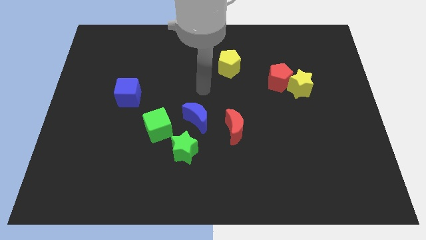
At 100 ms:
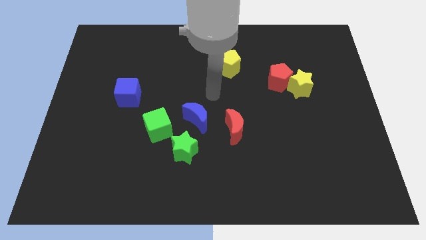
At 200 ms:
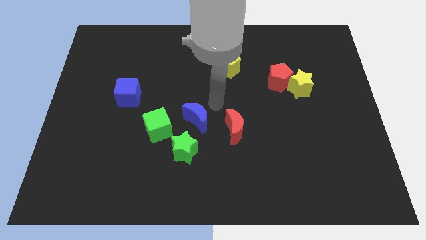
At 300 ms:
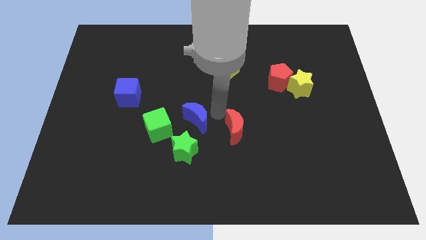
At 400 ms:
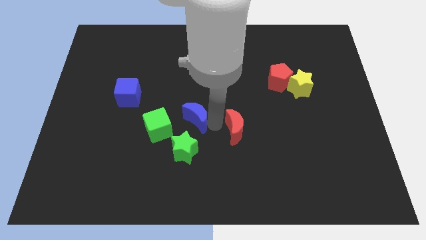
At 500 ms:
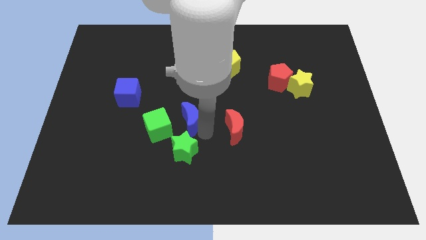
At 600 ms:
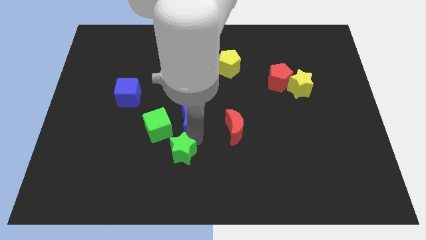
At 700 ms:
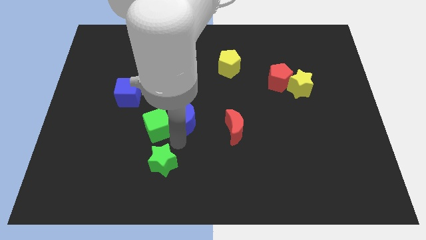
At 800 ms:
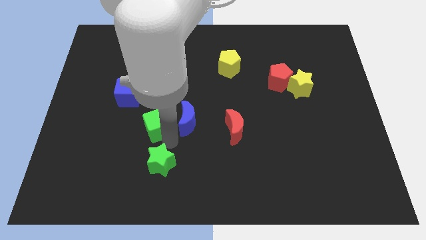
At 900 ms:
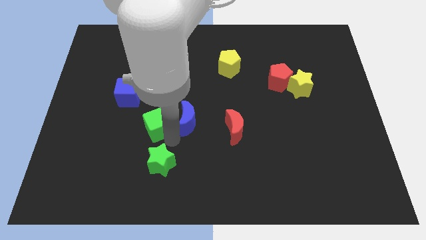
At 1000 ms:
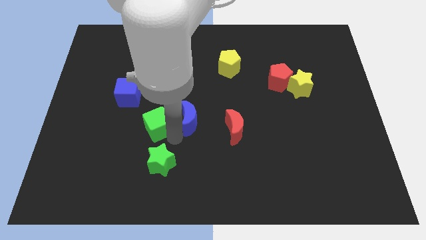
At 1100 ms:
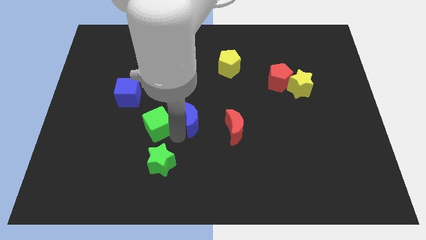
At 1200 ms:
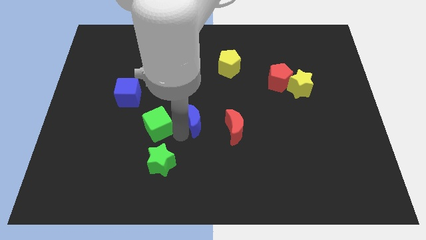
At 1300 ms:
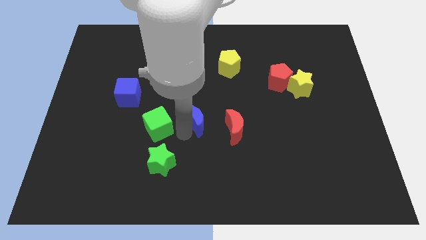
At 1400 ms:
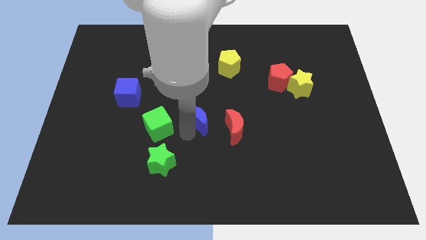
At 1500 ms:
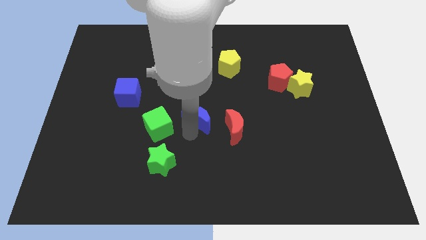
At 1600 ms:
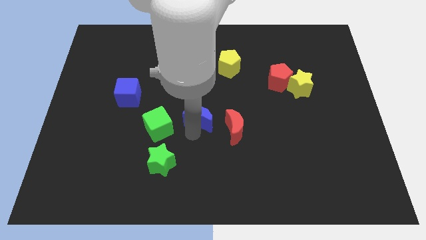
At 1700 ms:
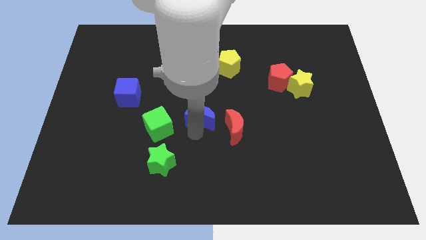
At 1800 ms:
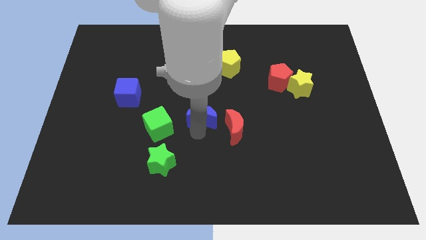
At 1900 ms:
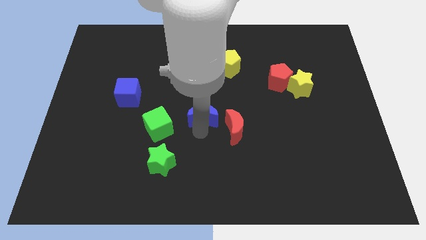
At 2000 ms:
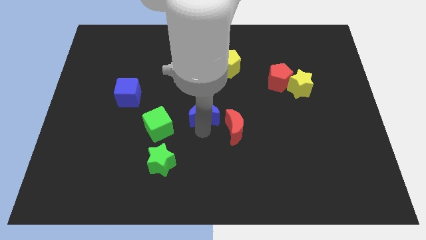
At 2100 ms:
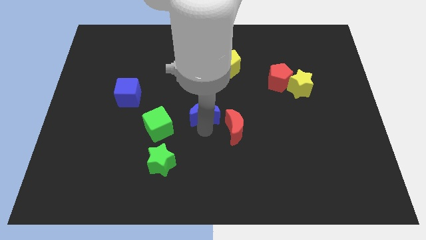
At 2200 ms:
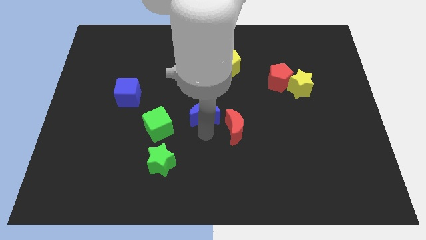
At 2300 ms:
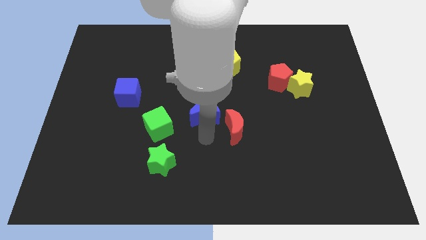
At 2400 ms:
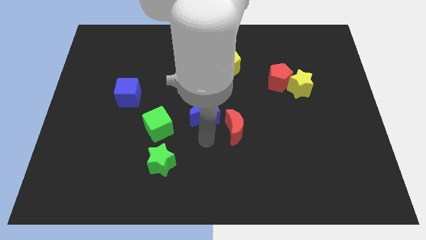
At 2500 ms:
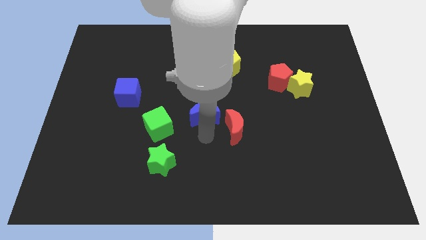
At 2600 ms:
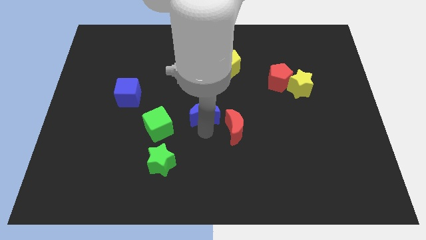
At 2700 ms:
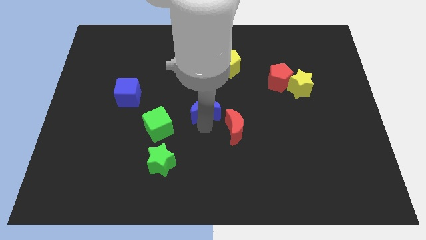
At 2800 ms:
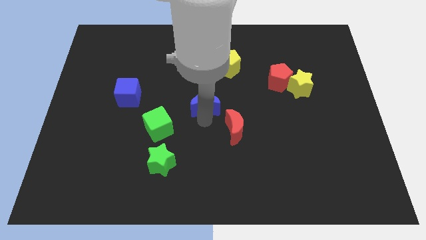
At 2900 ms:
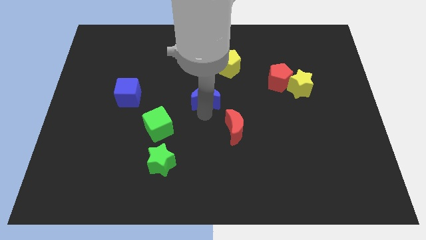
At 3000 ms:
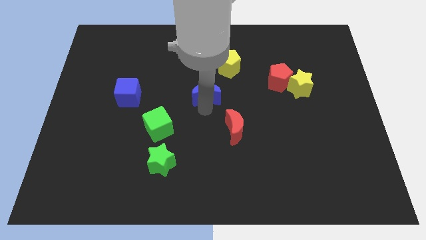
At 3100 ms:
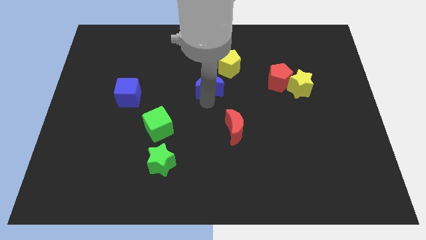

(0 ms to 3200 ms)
slightly move the blue moon up

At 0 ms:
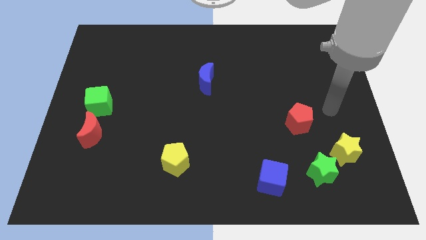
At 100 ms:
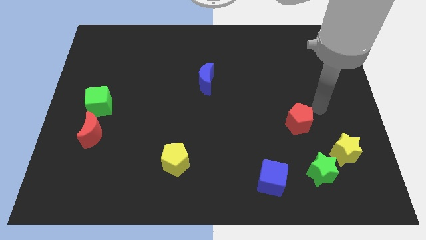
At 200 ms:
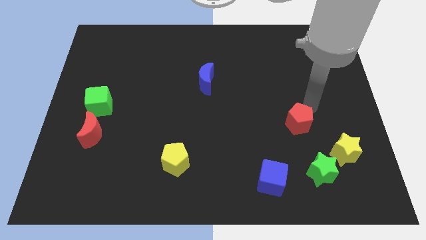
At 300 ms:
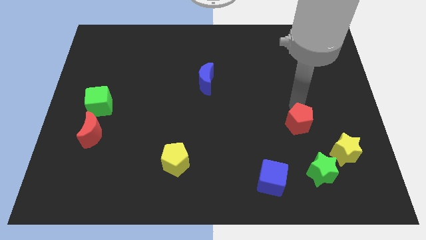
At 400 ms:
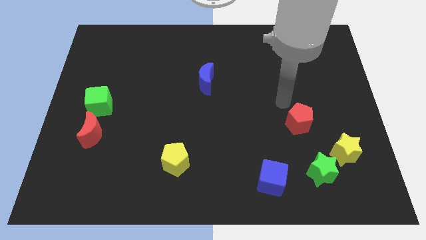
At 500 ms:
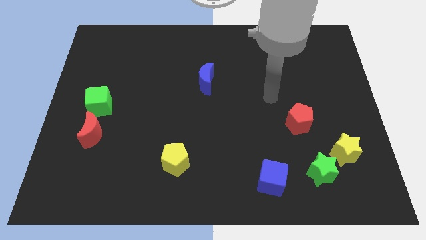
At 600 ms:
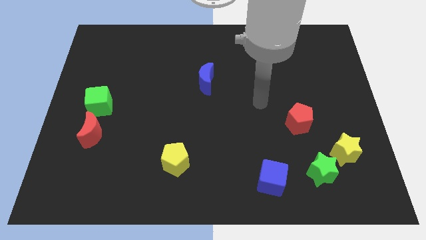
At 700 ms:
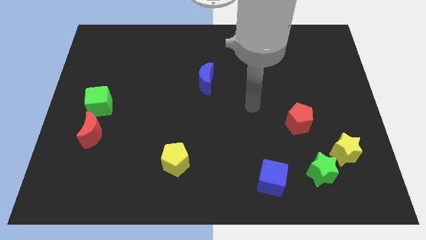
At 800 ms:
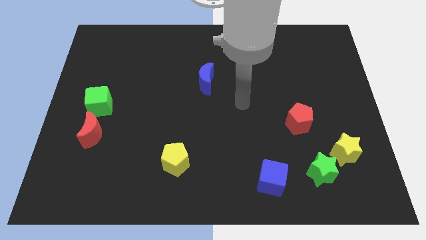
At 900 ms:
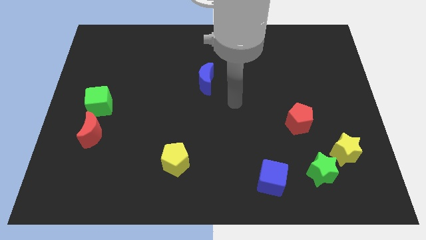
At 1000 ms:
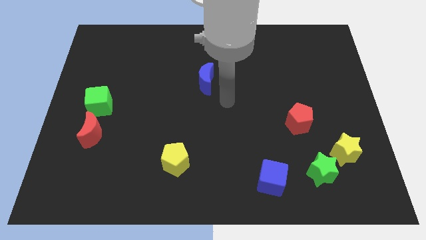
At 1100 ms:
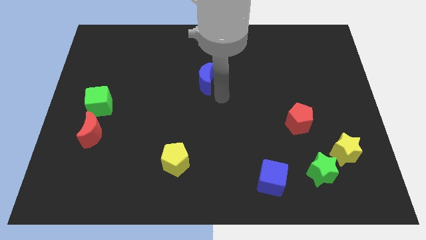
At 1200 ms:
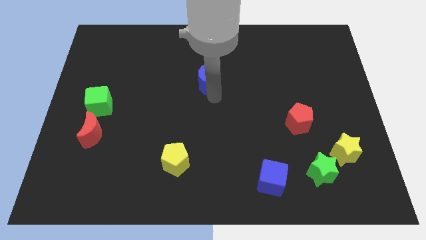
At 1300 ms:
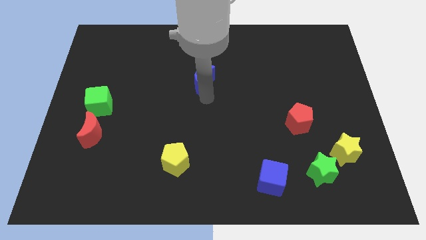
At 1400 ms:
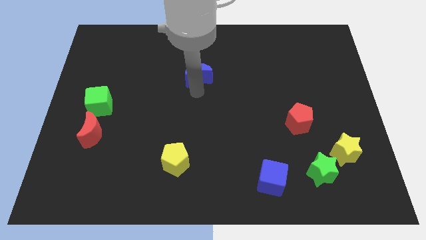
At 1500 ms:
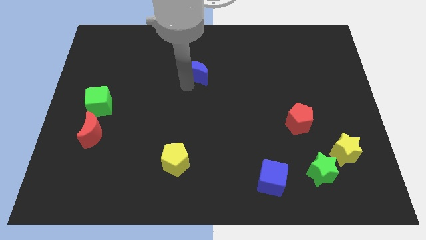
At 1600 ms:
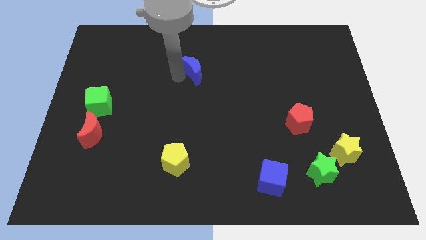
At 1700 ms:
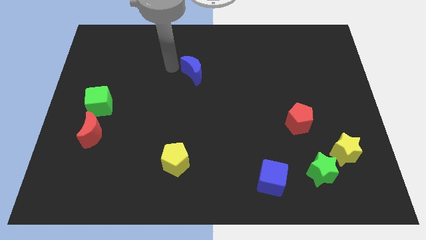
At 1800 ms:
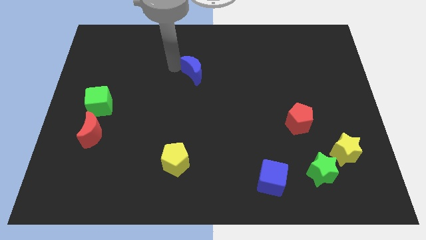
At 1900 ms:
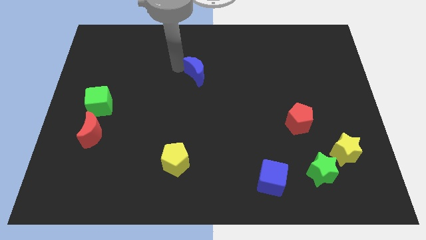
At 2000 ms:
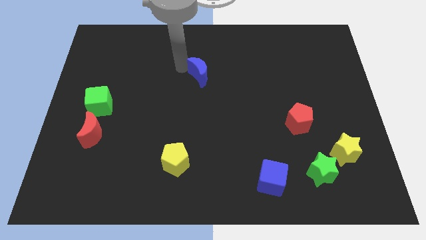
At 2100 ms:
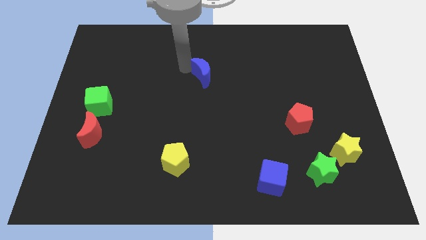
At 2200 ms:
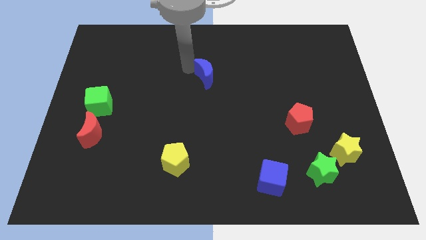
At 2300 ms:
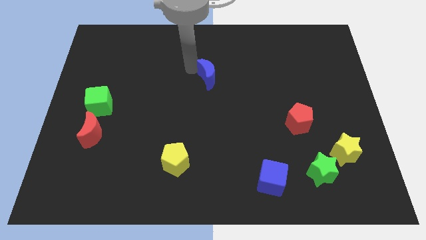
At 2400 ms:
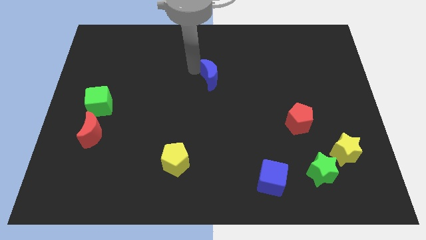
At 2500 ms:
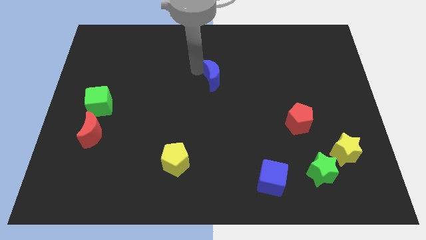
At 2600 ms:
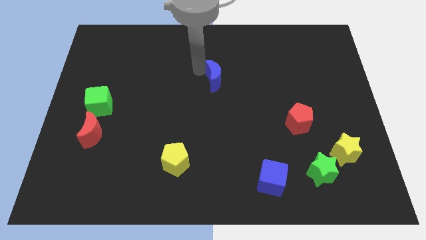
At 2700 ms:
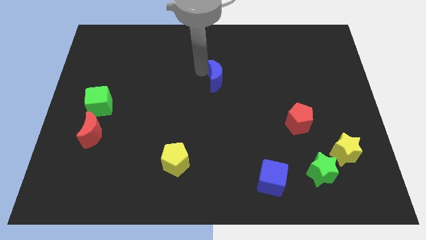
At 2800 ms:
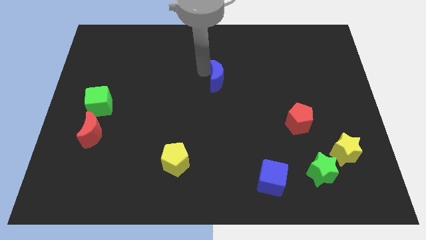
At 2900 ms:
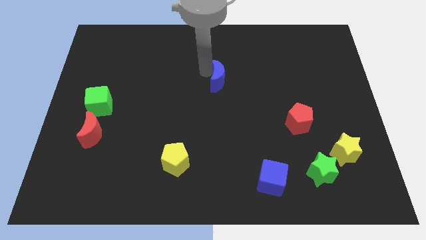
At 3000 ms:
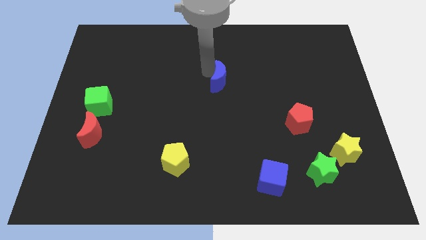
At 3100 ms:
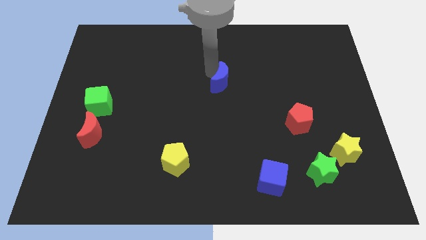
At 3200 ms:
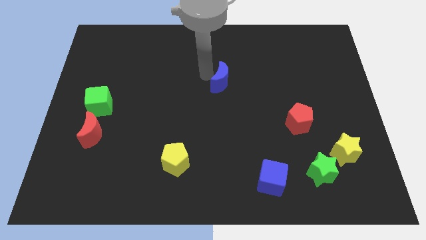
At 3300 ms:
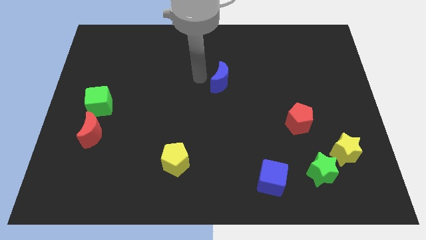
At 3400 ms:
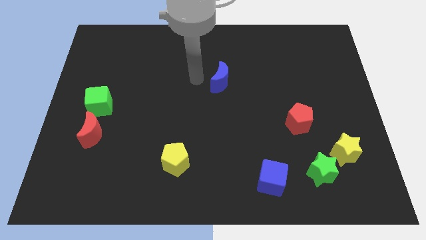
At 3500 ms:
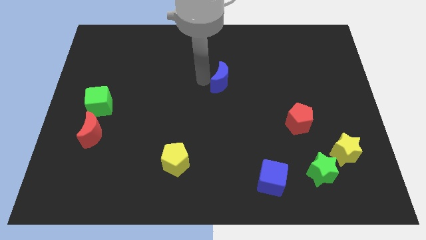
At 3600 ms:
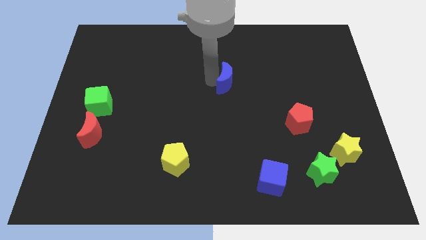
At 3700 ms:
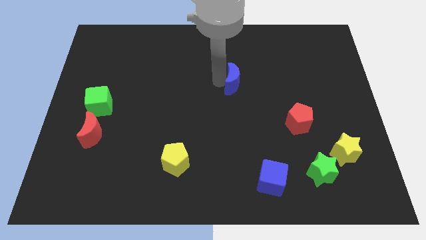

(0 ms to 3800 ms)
slide the blue moon to the right a bit

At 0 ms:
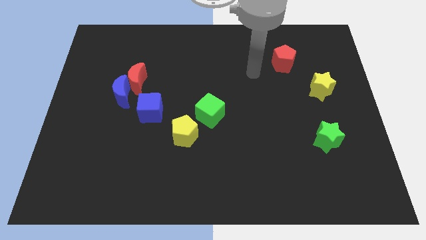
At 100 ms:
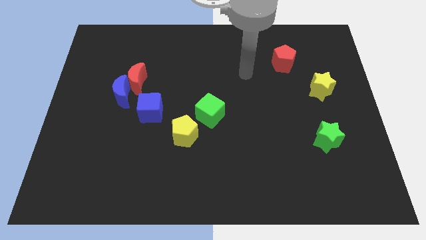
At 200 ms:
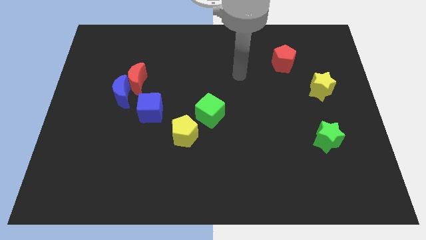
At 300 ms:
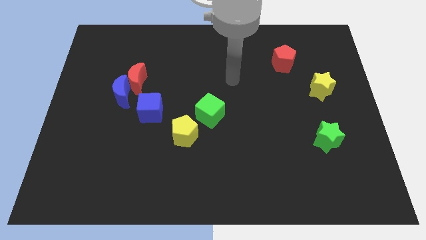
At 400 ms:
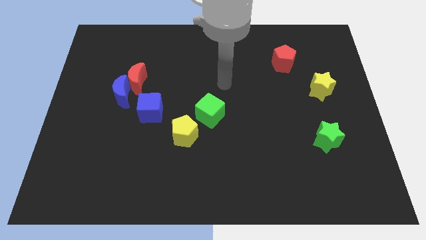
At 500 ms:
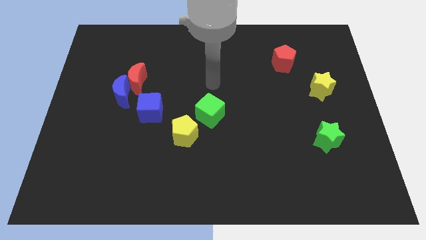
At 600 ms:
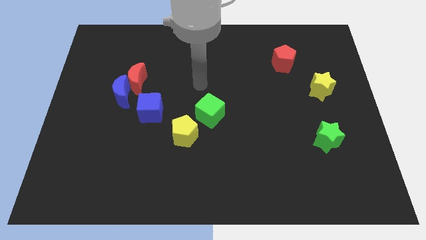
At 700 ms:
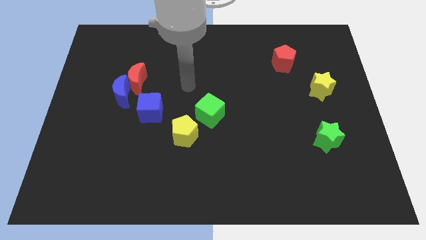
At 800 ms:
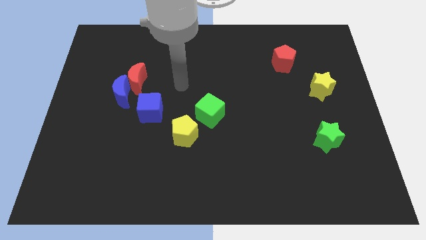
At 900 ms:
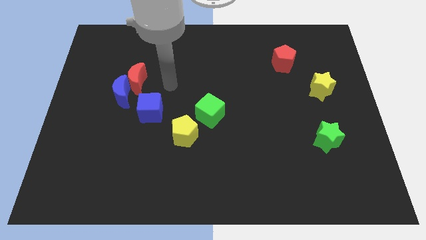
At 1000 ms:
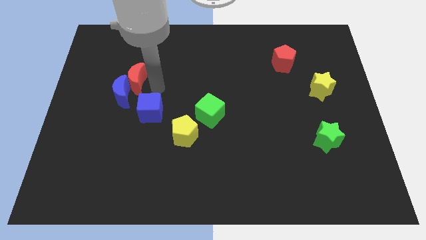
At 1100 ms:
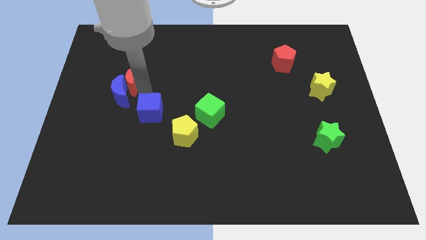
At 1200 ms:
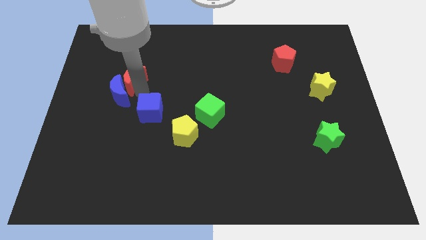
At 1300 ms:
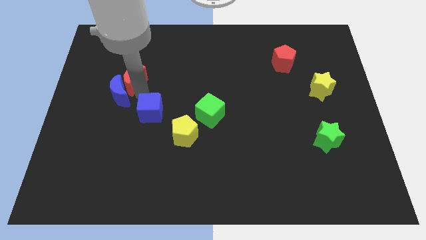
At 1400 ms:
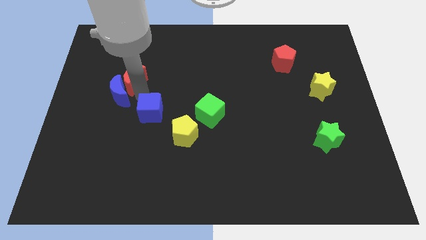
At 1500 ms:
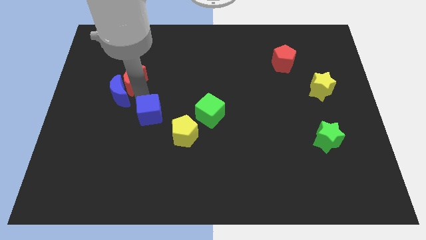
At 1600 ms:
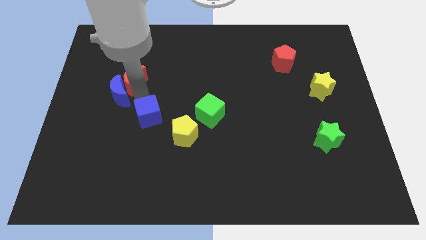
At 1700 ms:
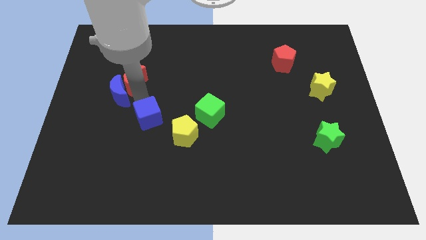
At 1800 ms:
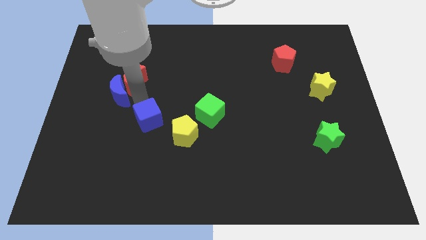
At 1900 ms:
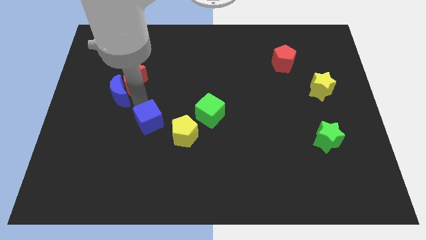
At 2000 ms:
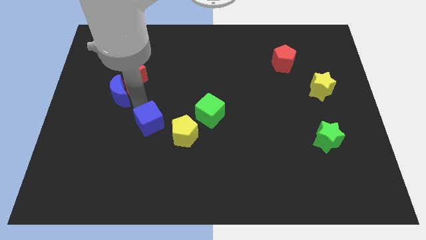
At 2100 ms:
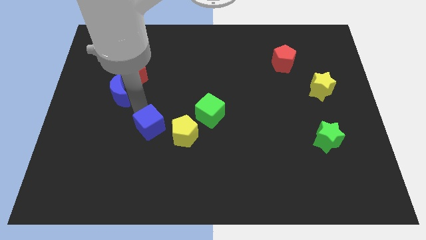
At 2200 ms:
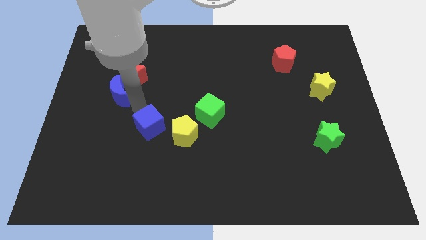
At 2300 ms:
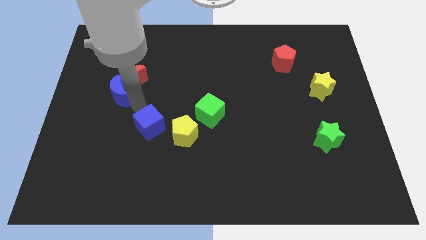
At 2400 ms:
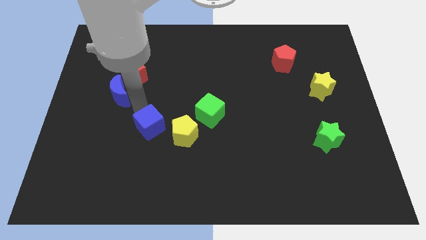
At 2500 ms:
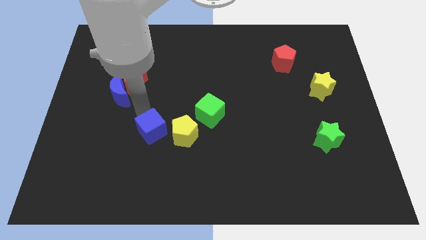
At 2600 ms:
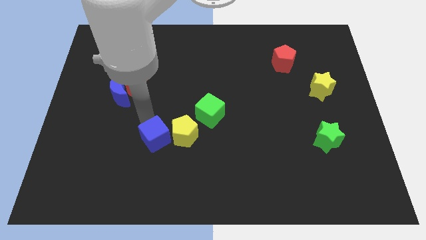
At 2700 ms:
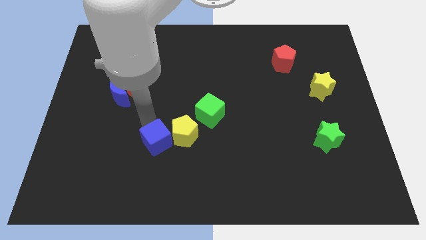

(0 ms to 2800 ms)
slightly move the blue cube down and then to the right
